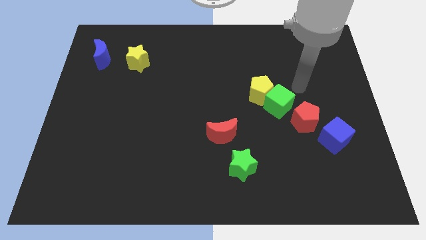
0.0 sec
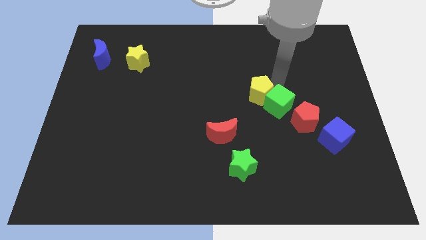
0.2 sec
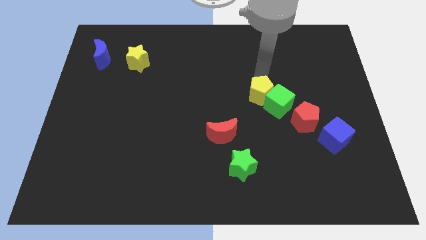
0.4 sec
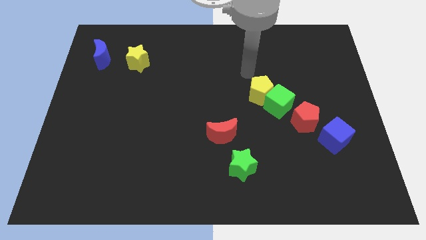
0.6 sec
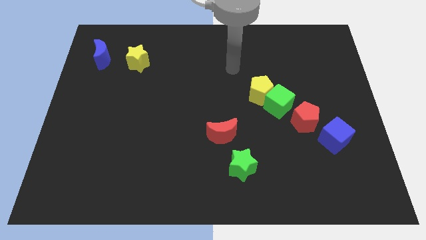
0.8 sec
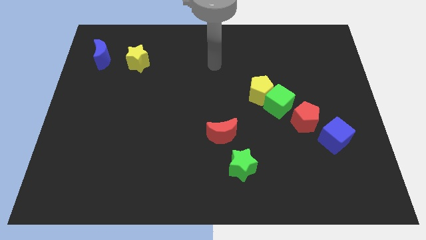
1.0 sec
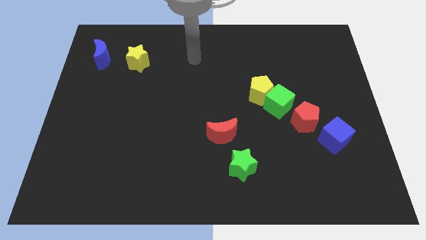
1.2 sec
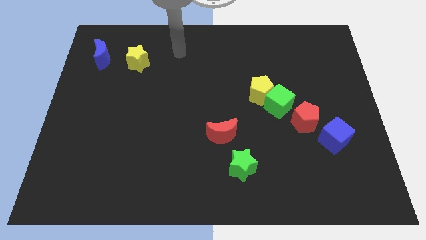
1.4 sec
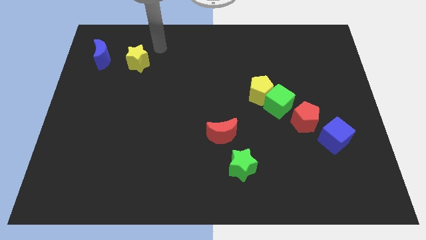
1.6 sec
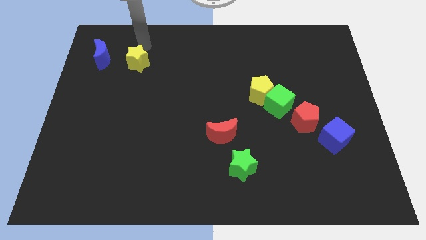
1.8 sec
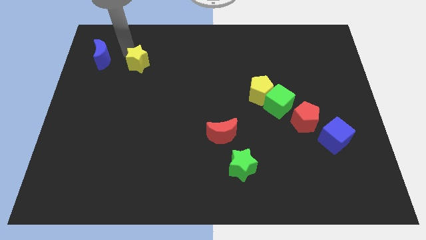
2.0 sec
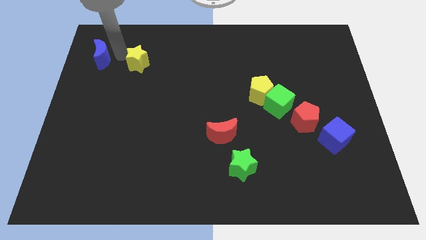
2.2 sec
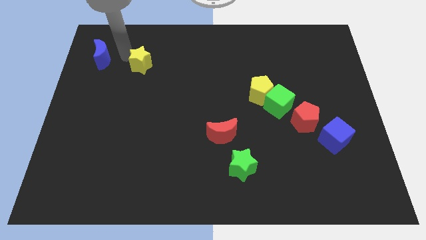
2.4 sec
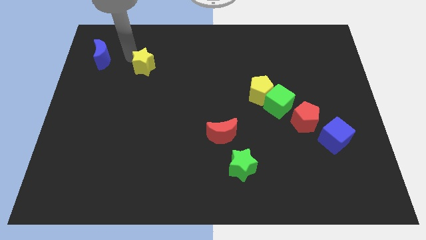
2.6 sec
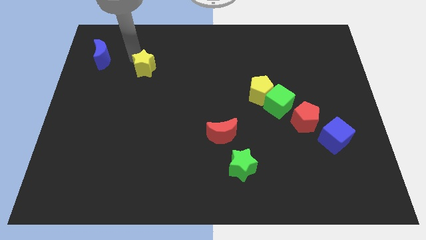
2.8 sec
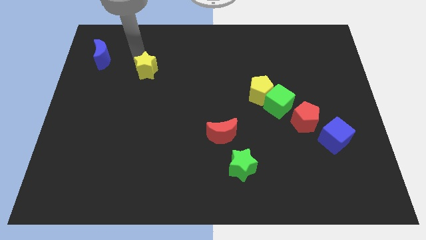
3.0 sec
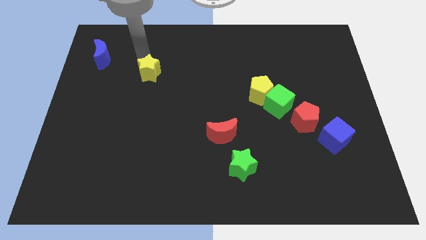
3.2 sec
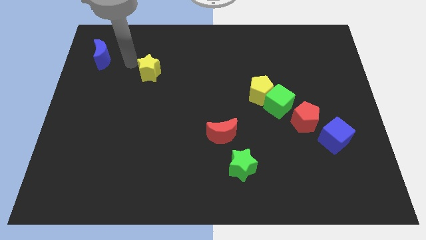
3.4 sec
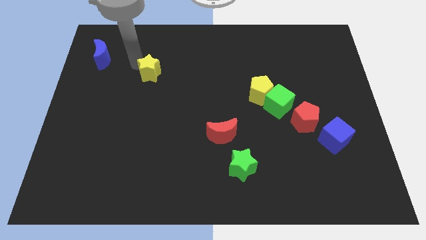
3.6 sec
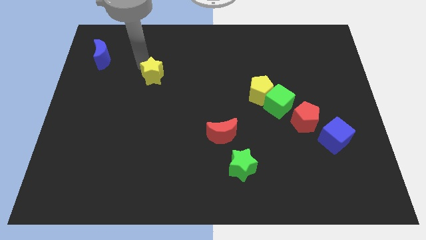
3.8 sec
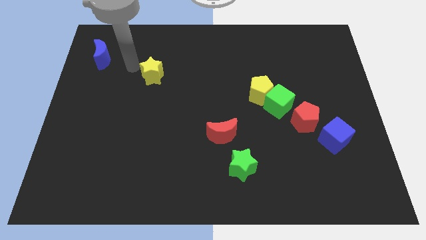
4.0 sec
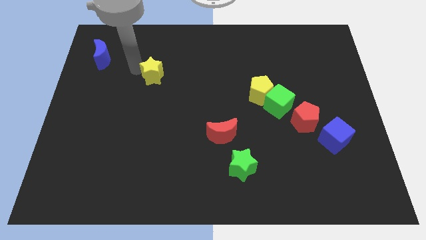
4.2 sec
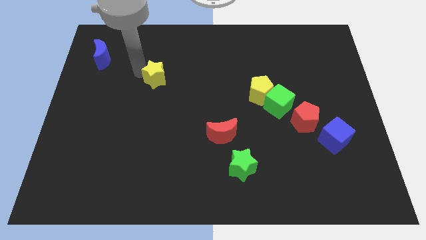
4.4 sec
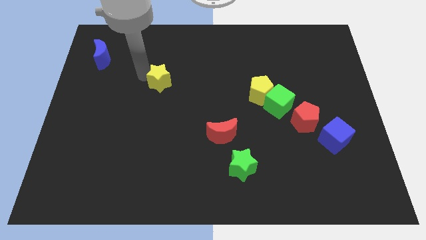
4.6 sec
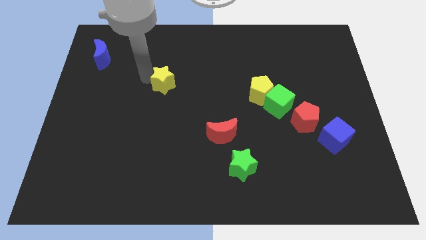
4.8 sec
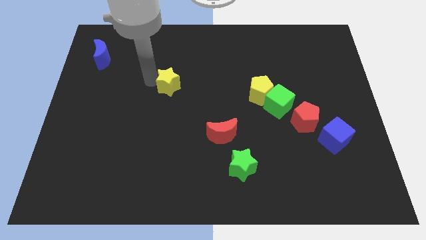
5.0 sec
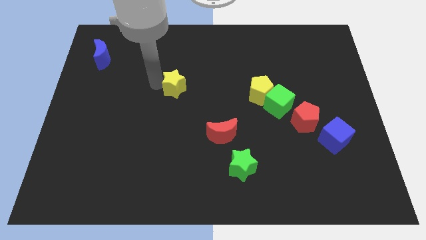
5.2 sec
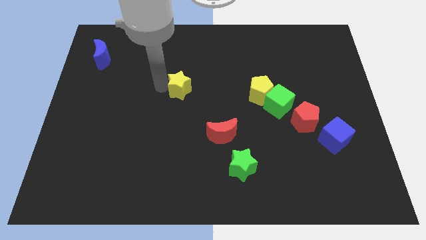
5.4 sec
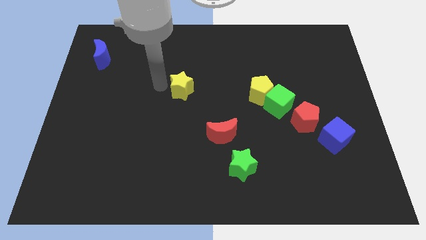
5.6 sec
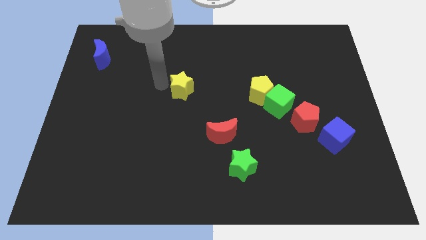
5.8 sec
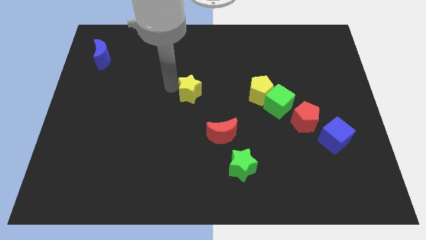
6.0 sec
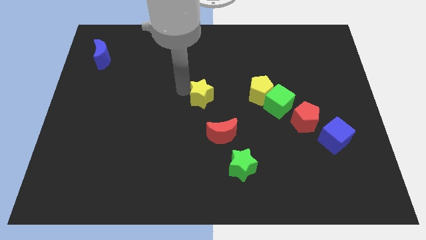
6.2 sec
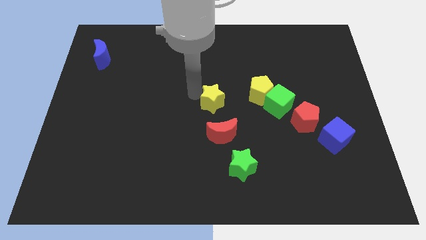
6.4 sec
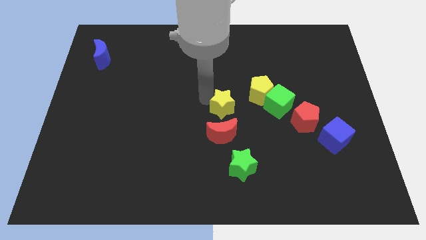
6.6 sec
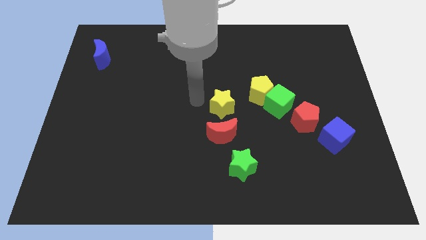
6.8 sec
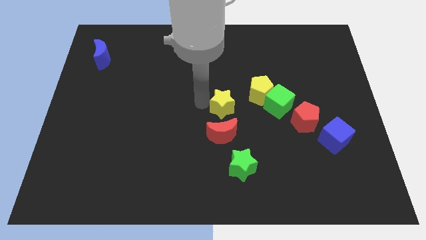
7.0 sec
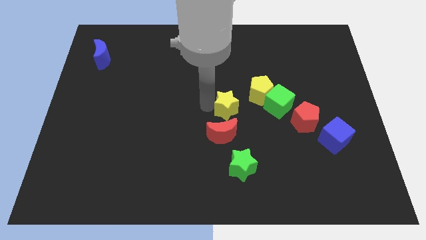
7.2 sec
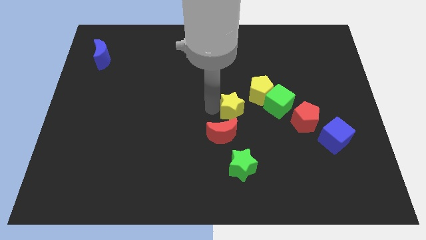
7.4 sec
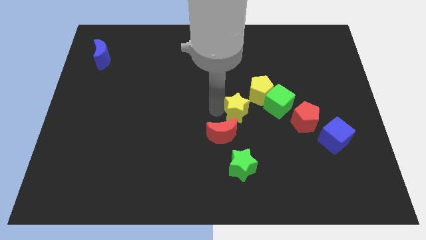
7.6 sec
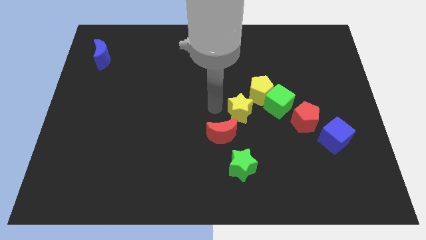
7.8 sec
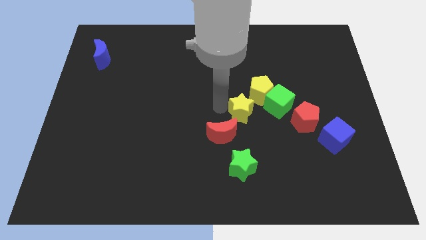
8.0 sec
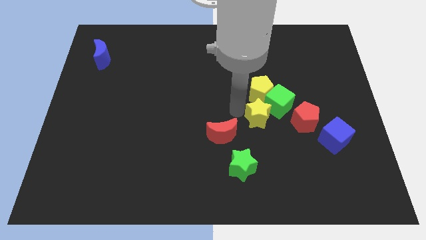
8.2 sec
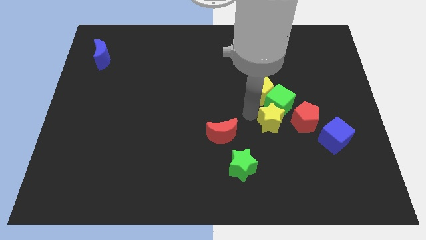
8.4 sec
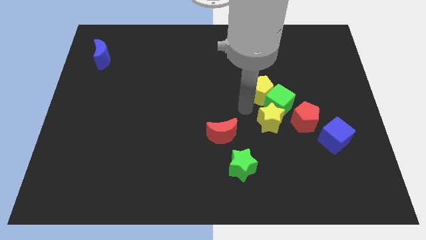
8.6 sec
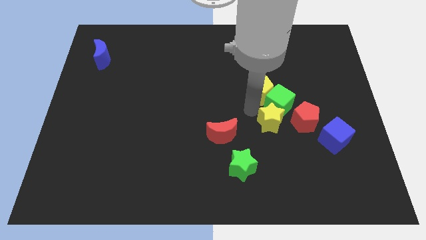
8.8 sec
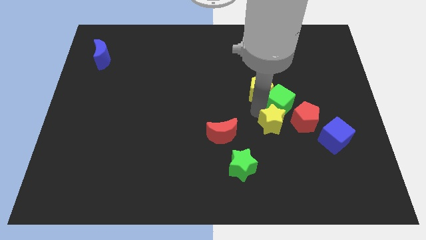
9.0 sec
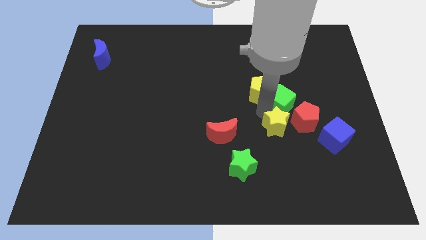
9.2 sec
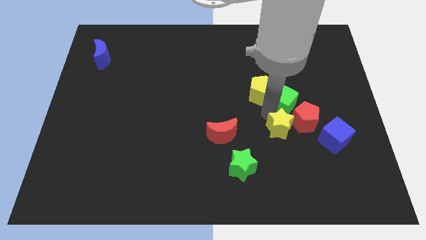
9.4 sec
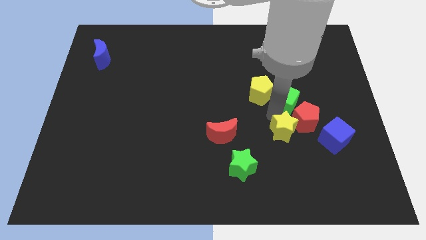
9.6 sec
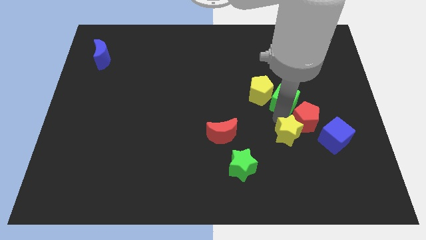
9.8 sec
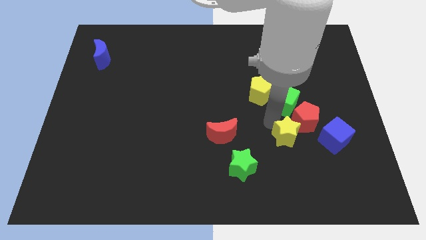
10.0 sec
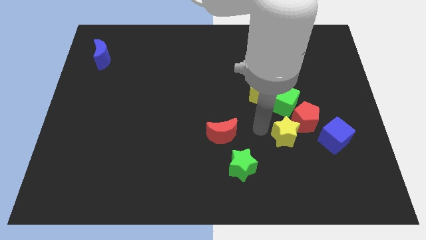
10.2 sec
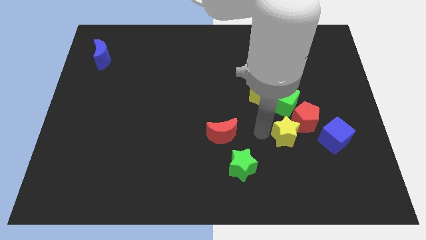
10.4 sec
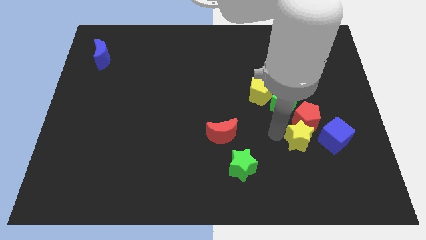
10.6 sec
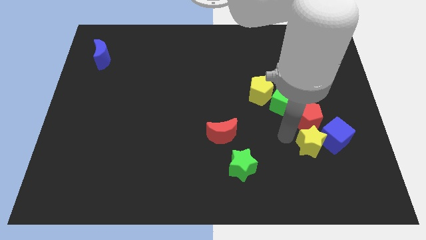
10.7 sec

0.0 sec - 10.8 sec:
push the yellow star to the blue cube

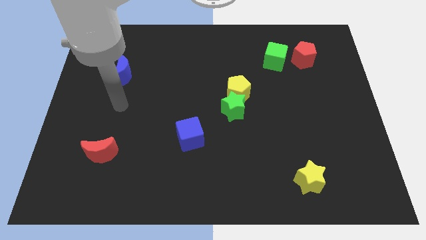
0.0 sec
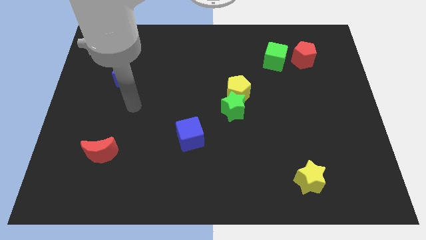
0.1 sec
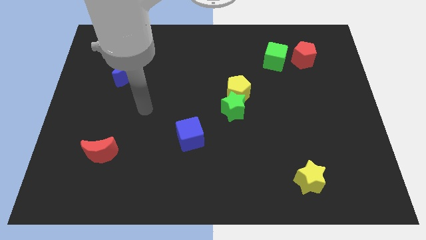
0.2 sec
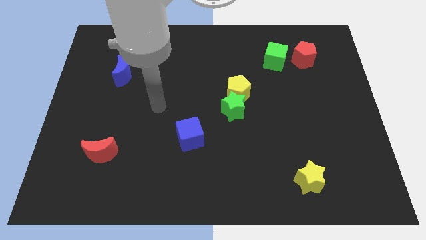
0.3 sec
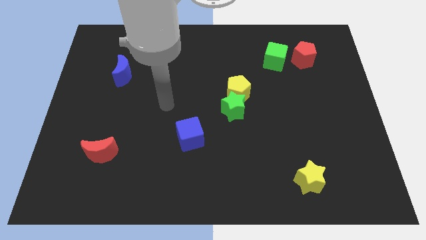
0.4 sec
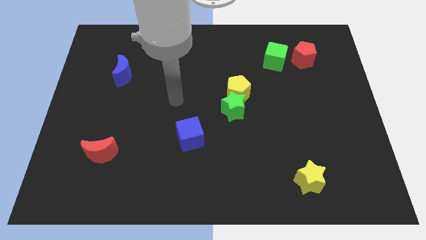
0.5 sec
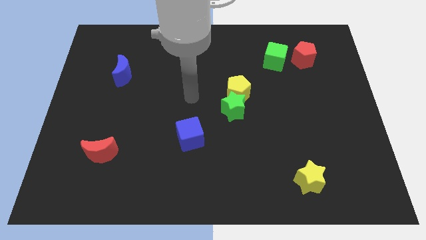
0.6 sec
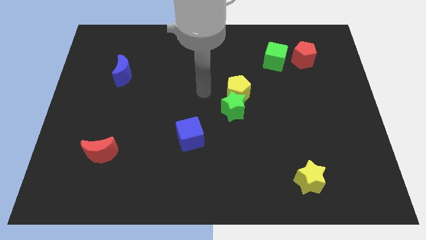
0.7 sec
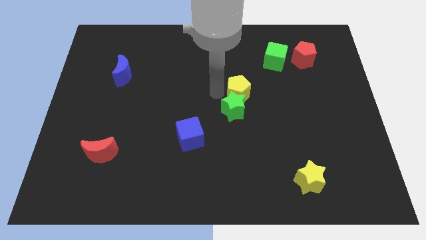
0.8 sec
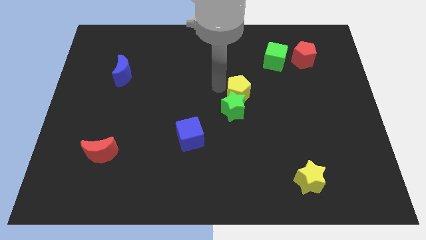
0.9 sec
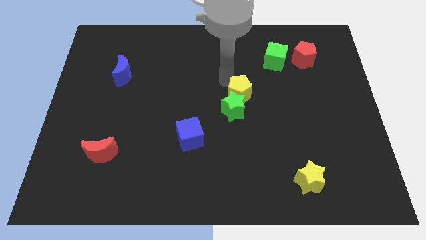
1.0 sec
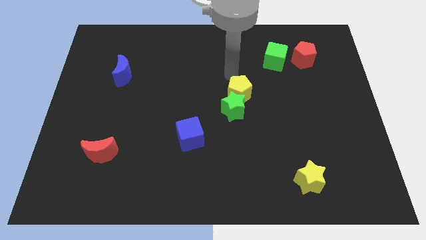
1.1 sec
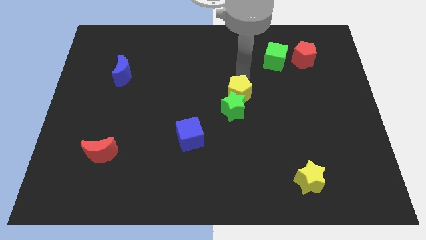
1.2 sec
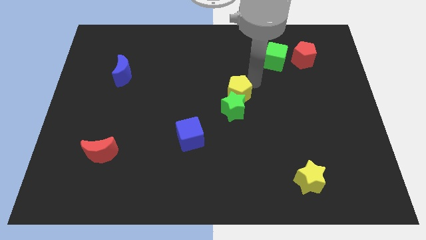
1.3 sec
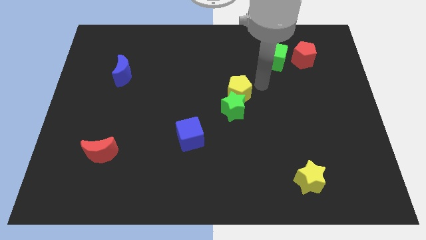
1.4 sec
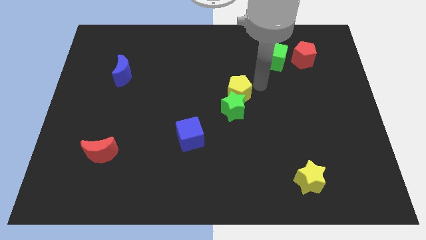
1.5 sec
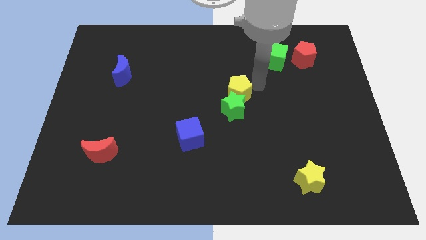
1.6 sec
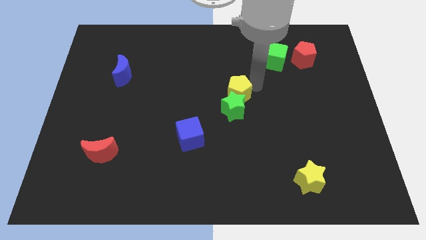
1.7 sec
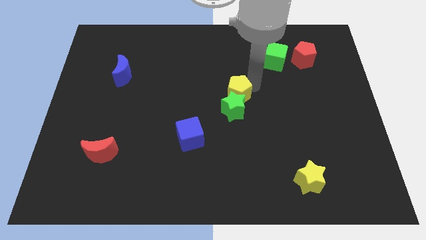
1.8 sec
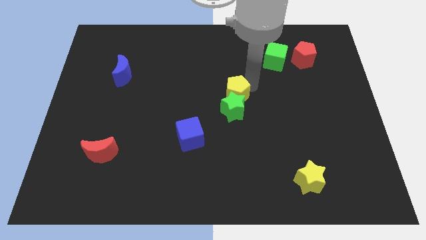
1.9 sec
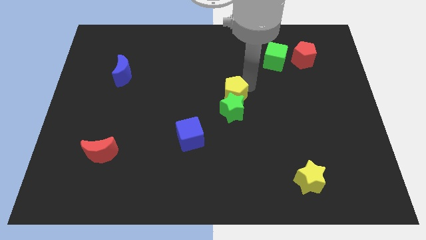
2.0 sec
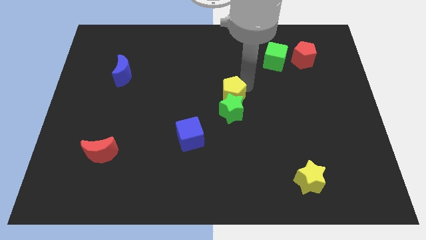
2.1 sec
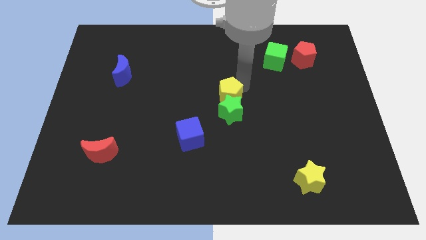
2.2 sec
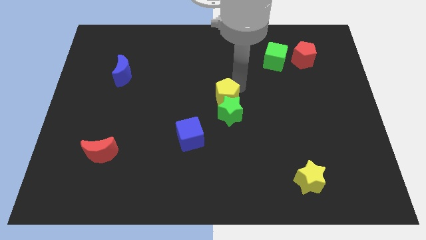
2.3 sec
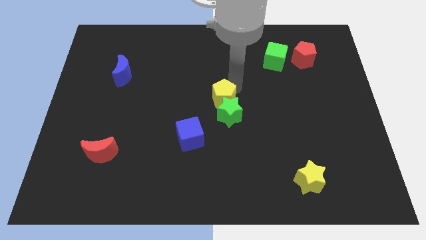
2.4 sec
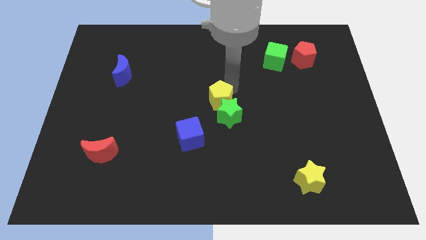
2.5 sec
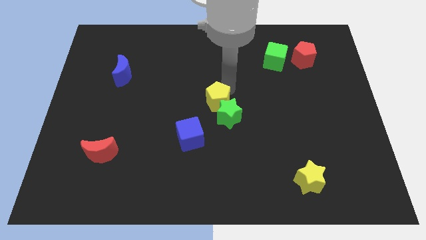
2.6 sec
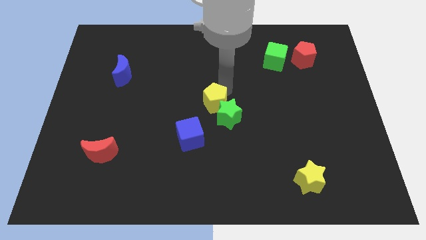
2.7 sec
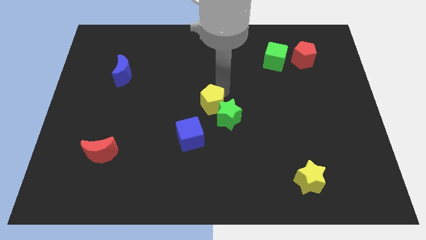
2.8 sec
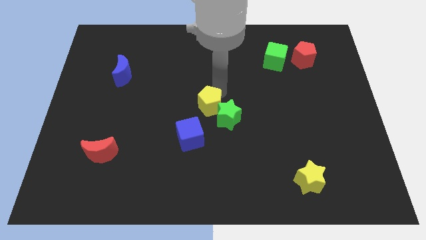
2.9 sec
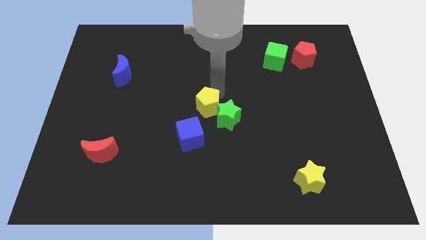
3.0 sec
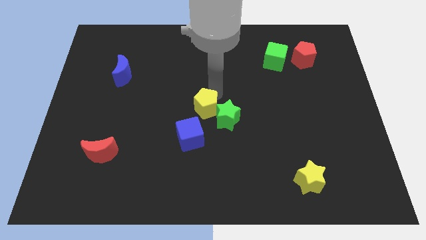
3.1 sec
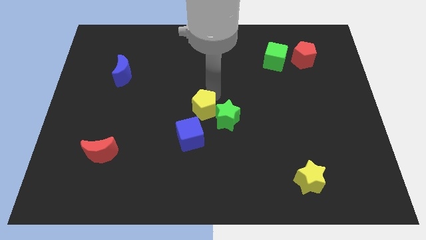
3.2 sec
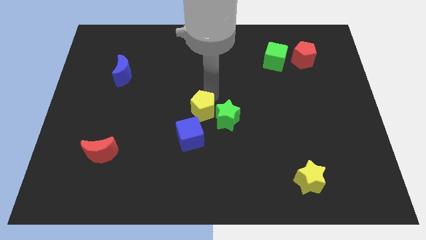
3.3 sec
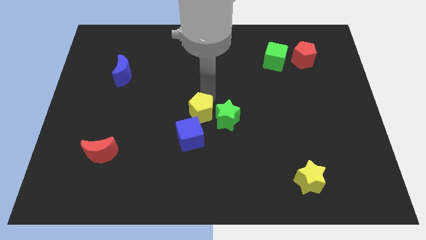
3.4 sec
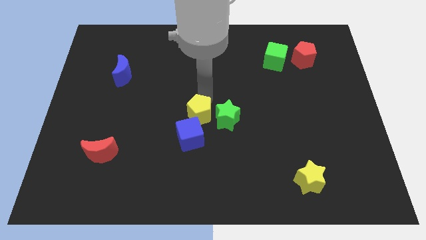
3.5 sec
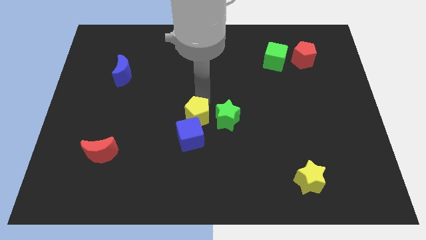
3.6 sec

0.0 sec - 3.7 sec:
slide the yellow pentagon next to the blue cube
